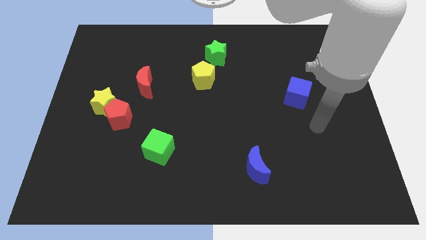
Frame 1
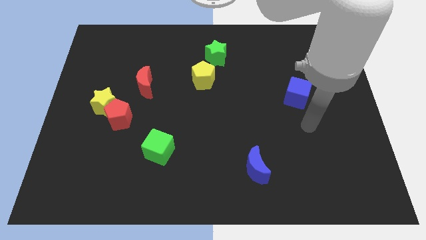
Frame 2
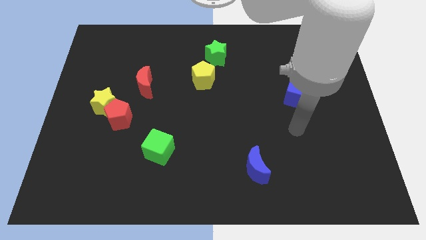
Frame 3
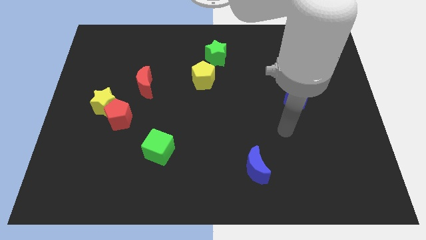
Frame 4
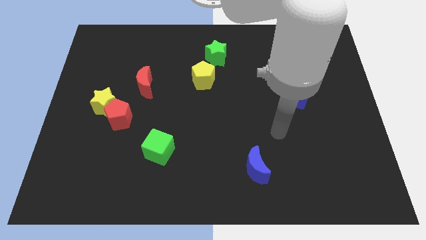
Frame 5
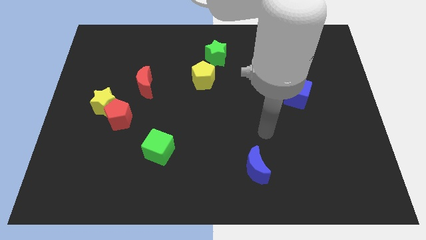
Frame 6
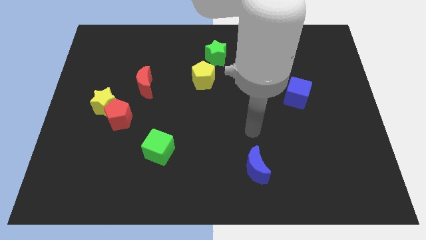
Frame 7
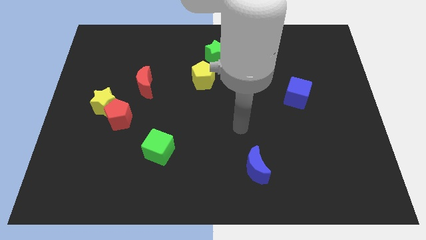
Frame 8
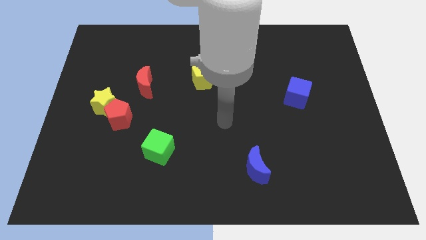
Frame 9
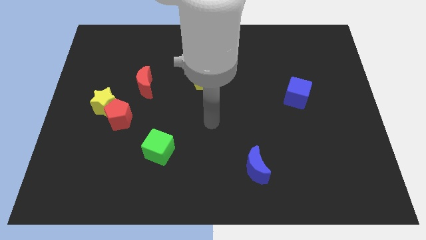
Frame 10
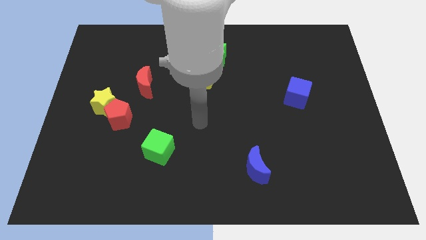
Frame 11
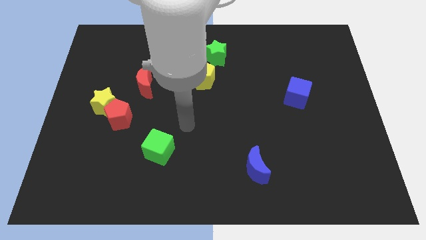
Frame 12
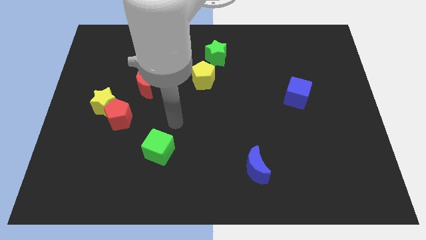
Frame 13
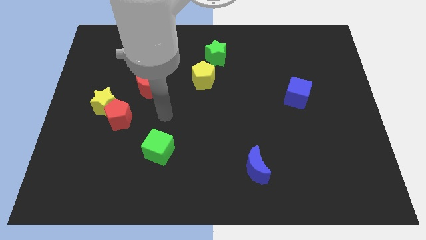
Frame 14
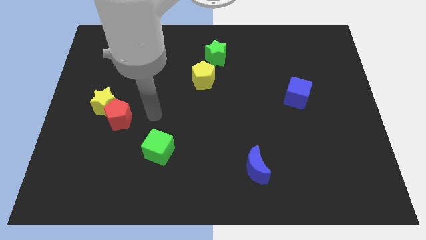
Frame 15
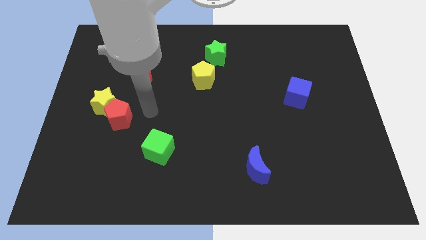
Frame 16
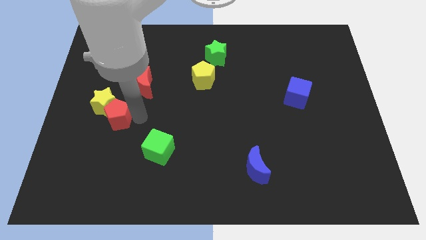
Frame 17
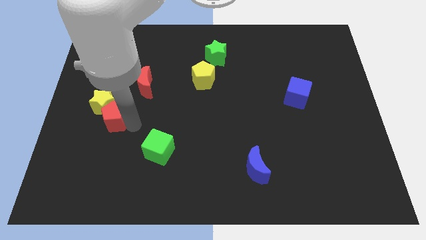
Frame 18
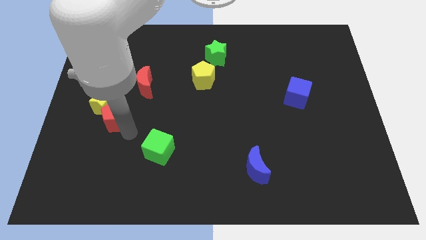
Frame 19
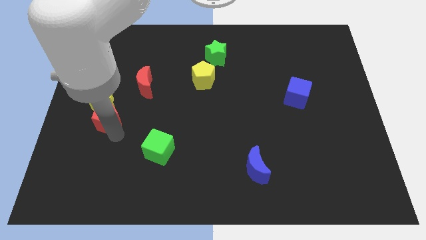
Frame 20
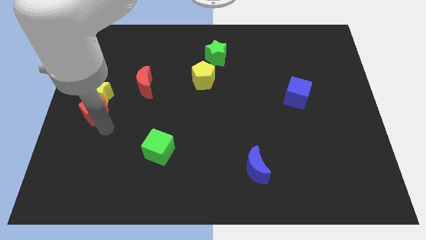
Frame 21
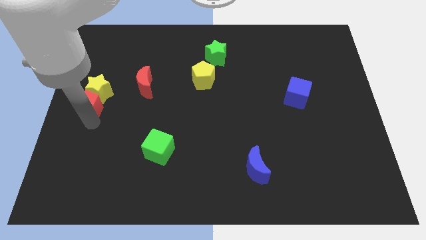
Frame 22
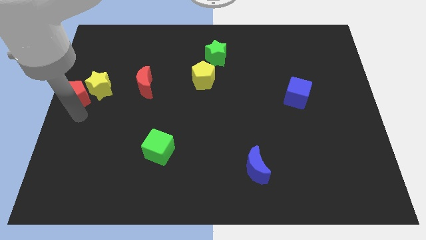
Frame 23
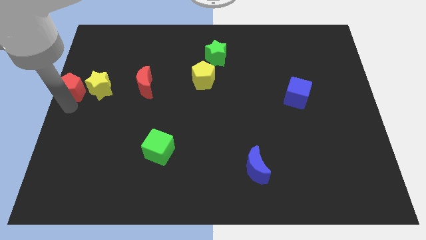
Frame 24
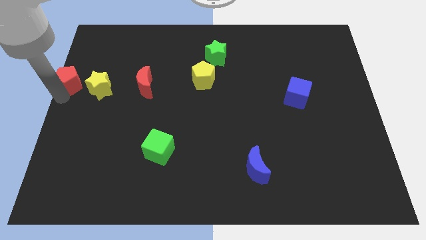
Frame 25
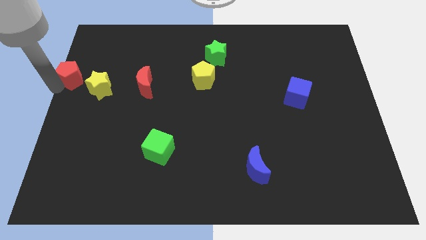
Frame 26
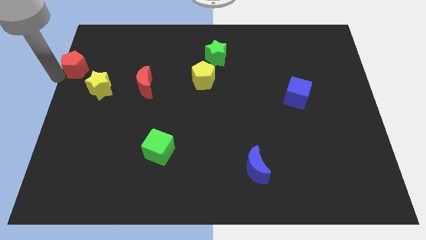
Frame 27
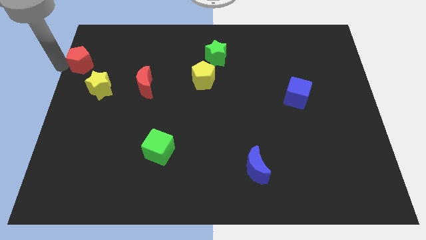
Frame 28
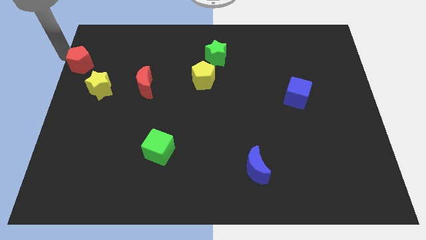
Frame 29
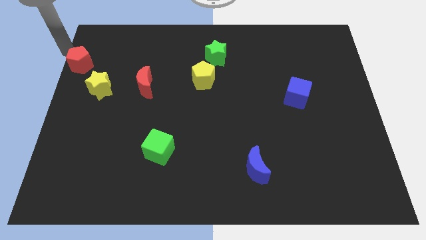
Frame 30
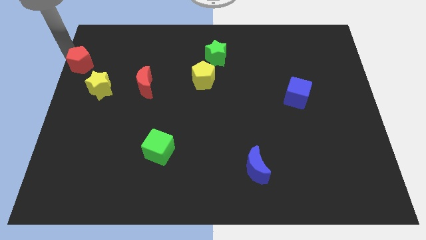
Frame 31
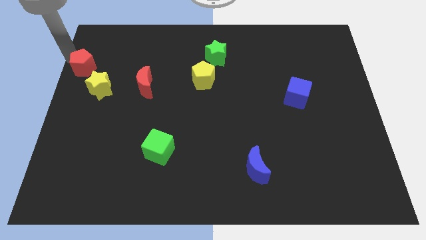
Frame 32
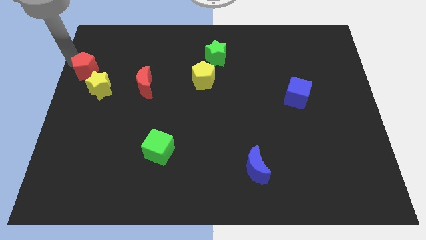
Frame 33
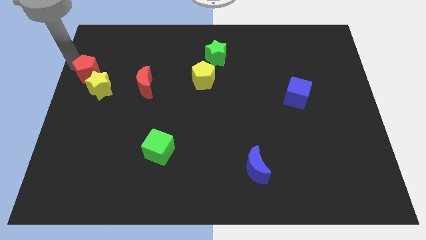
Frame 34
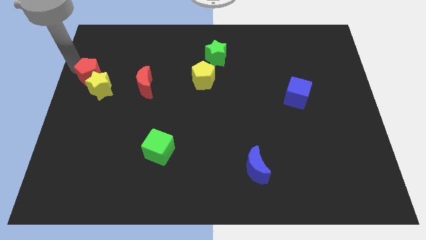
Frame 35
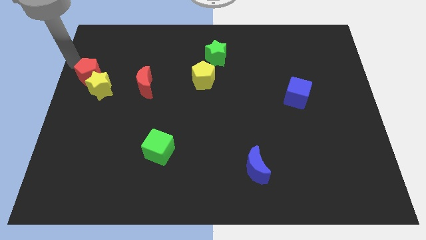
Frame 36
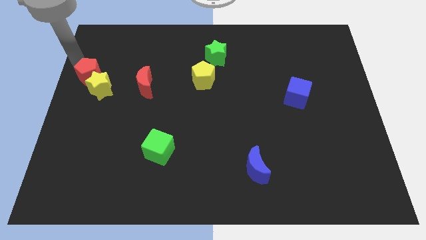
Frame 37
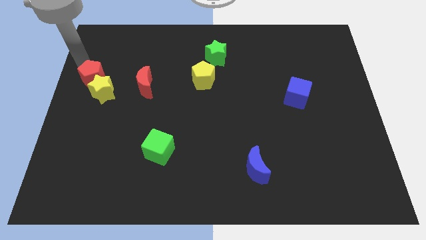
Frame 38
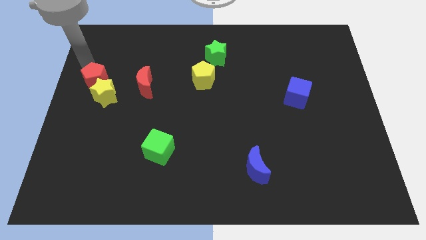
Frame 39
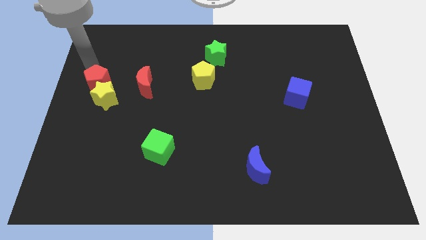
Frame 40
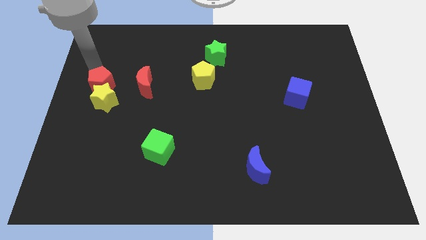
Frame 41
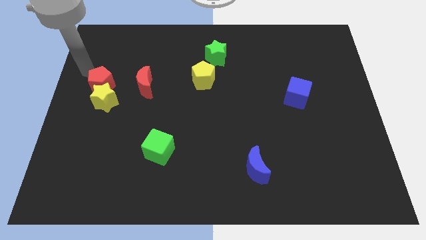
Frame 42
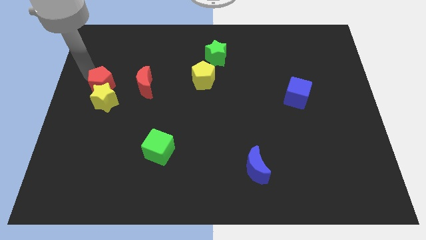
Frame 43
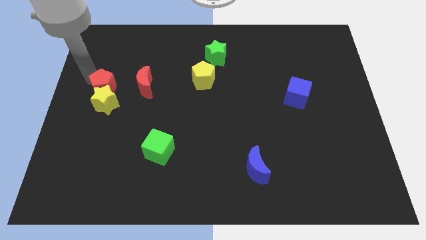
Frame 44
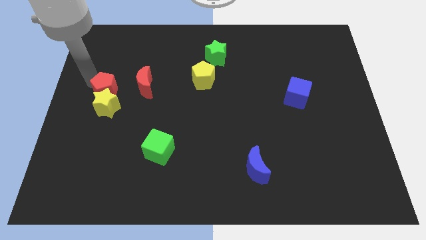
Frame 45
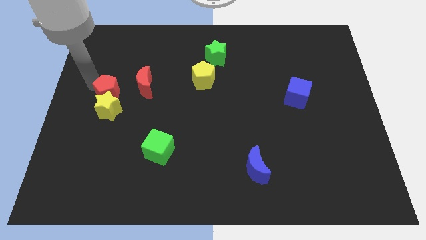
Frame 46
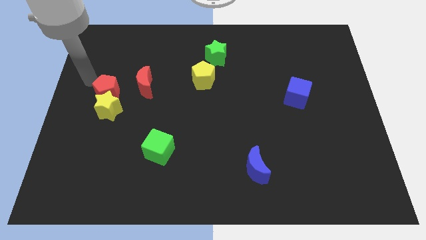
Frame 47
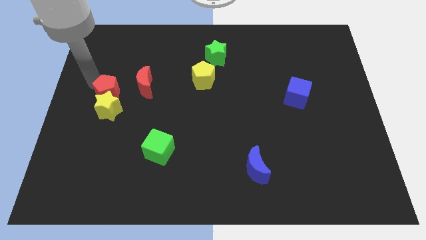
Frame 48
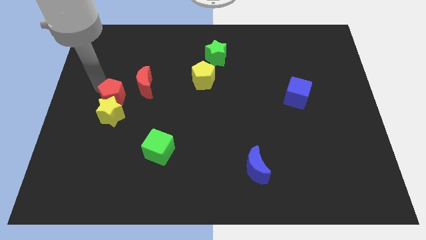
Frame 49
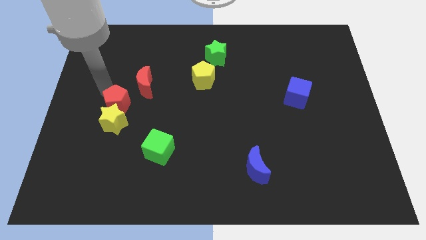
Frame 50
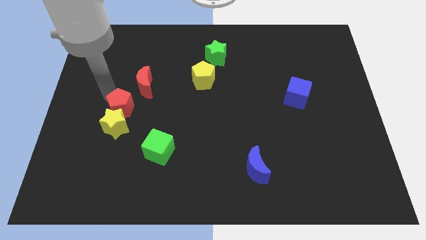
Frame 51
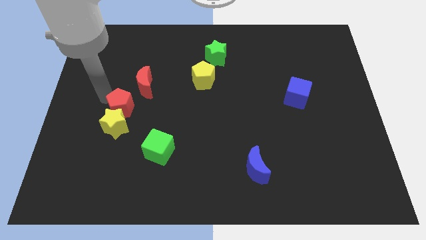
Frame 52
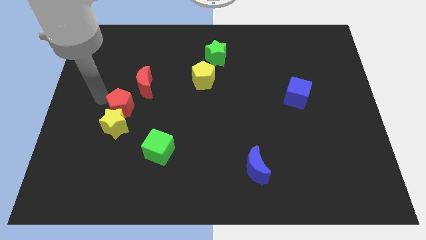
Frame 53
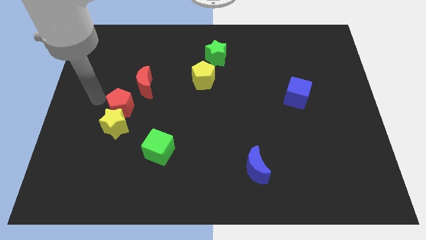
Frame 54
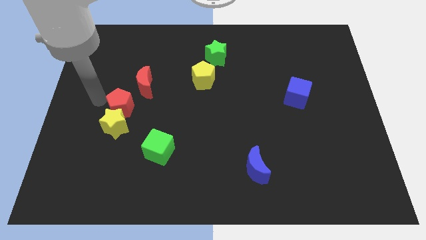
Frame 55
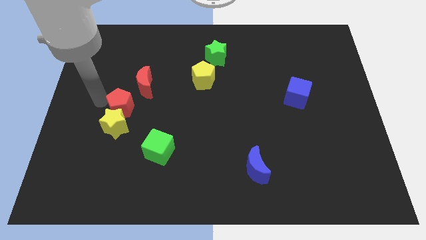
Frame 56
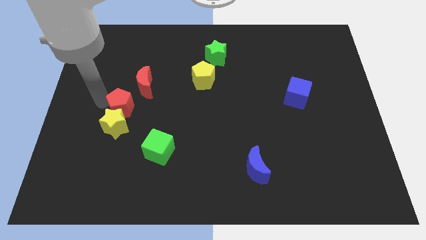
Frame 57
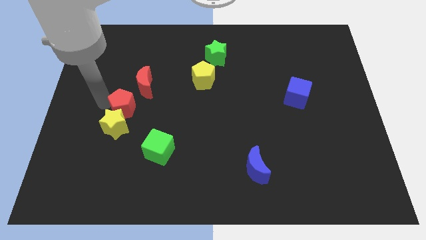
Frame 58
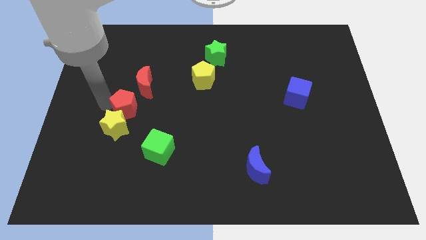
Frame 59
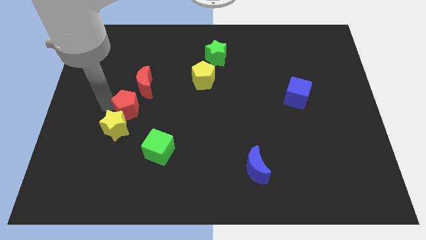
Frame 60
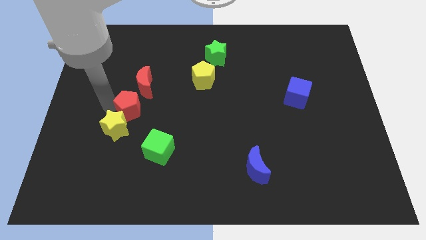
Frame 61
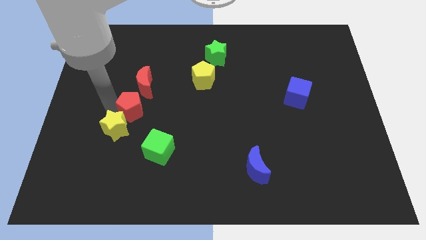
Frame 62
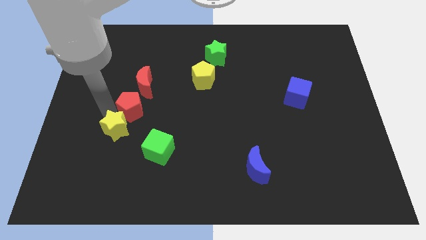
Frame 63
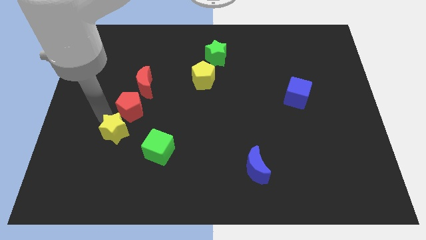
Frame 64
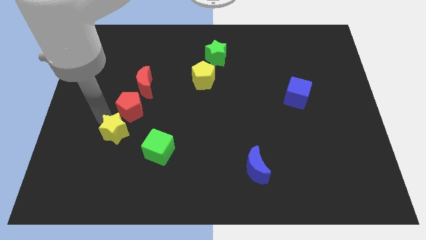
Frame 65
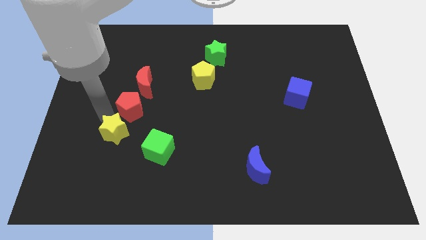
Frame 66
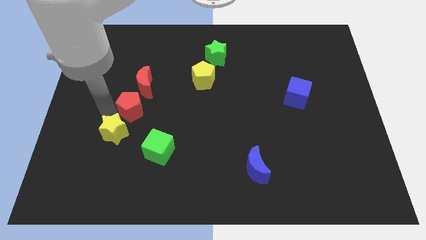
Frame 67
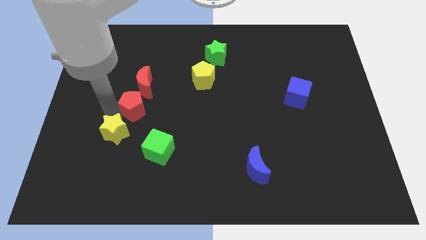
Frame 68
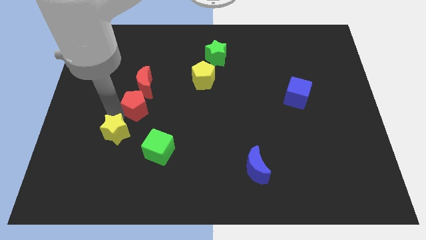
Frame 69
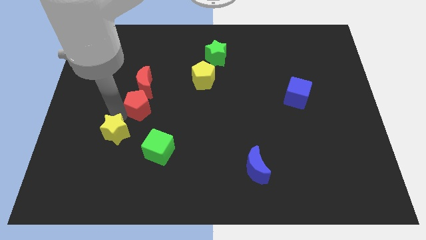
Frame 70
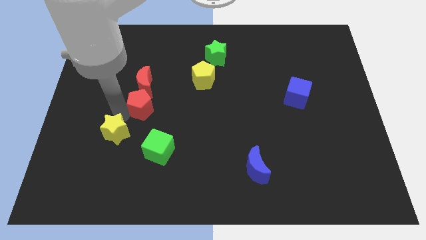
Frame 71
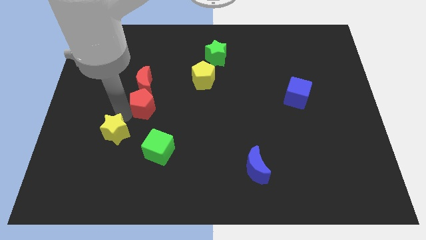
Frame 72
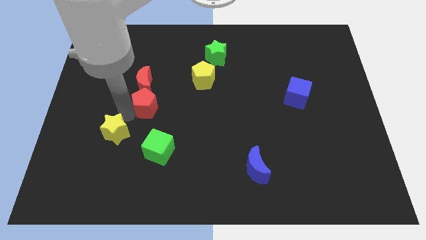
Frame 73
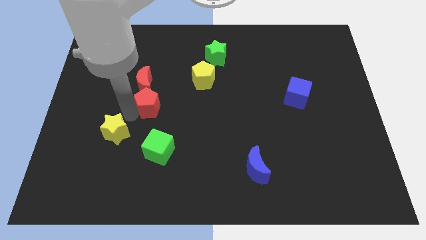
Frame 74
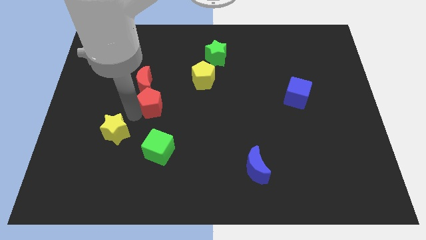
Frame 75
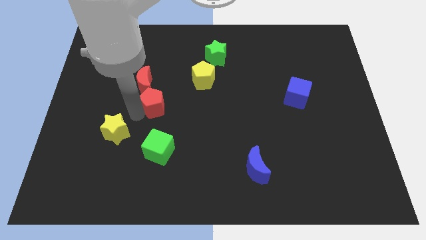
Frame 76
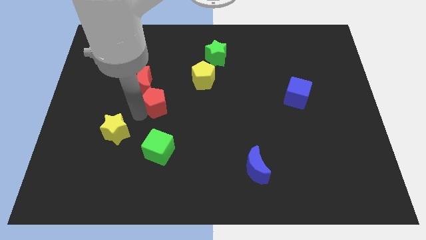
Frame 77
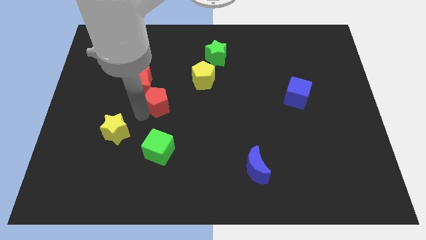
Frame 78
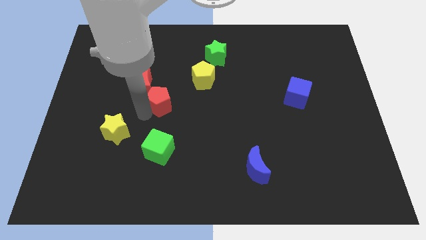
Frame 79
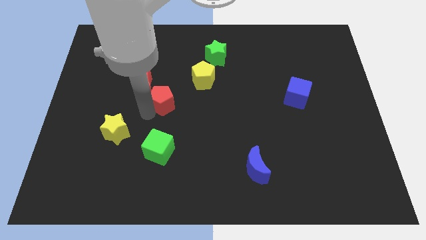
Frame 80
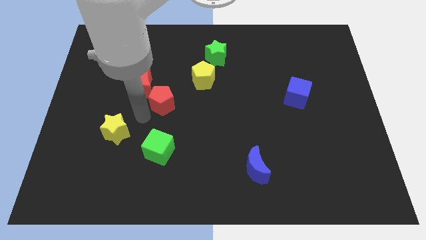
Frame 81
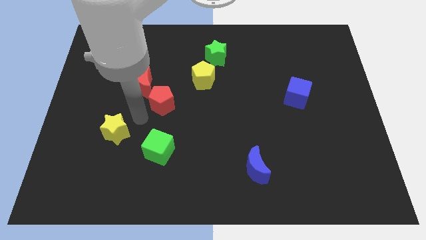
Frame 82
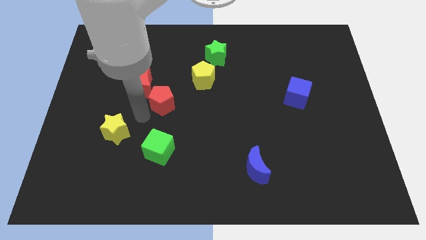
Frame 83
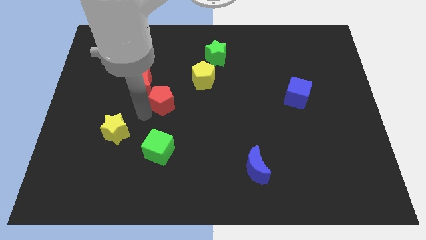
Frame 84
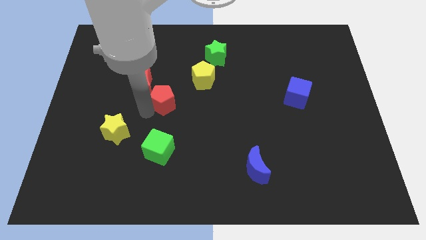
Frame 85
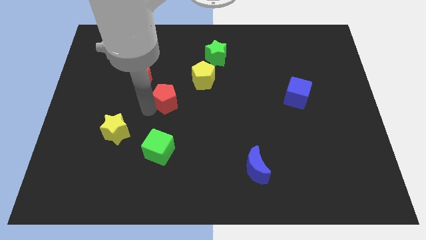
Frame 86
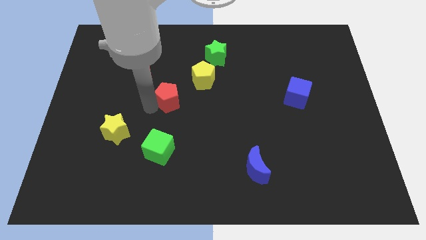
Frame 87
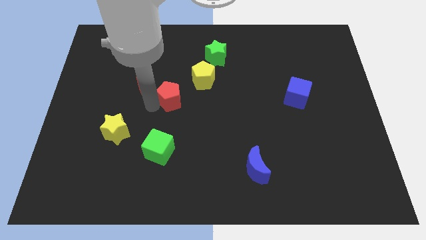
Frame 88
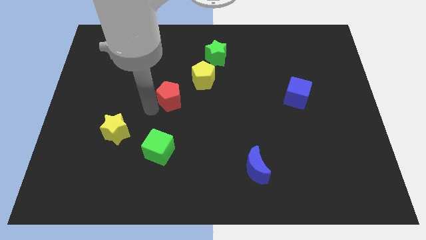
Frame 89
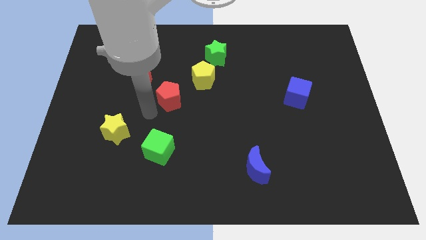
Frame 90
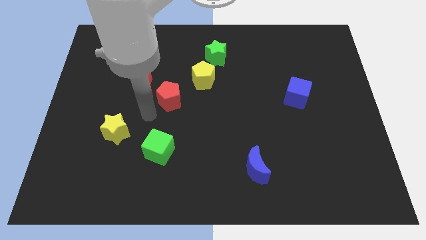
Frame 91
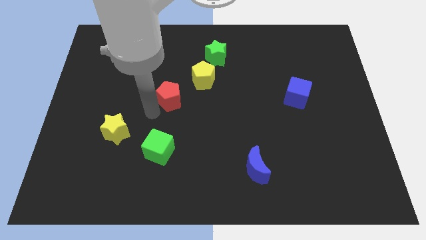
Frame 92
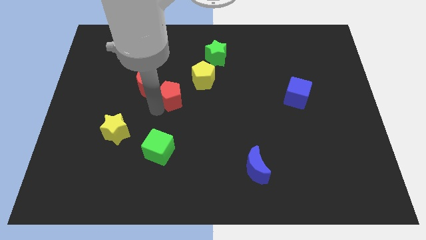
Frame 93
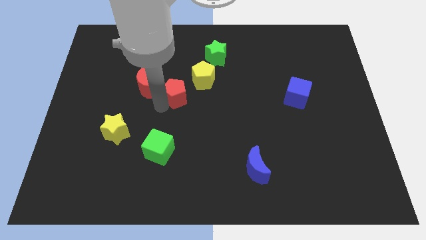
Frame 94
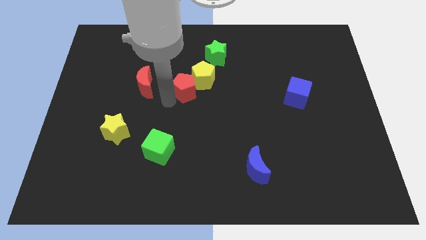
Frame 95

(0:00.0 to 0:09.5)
push the red pentagon close to the yellow pentagon
